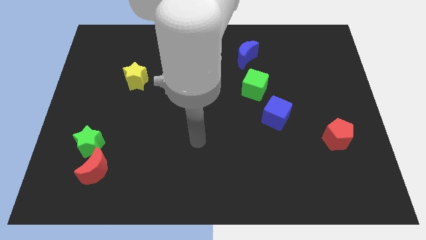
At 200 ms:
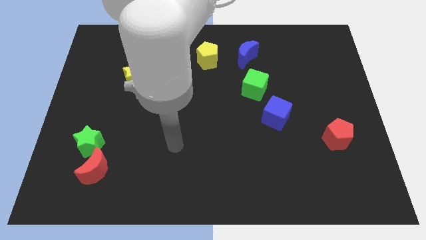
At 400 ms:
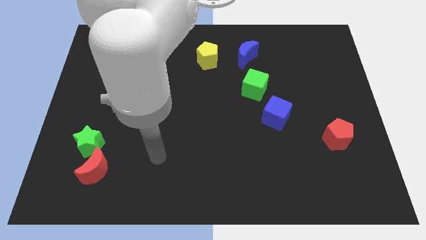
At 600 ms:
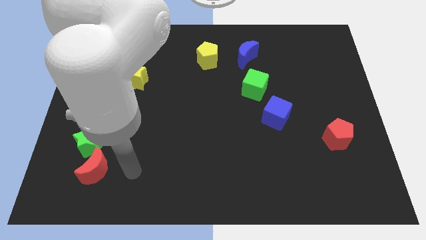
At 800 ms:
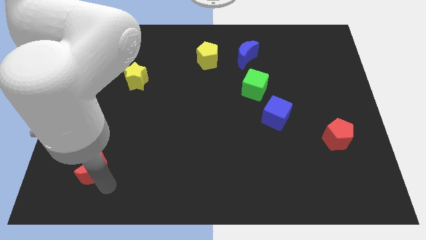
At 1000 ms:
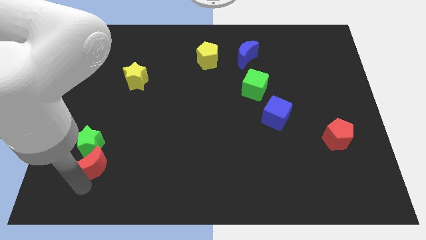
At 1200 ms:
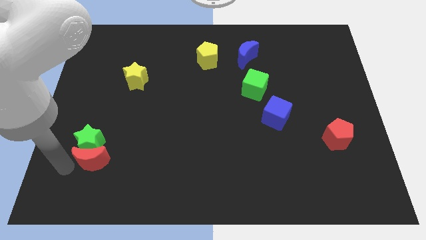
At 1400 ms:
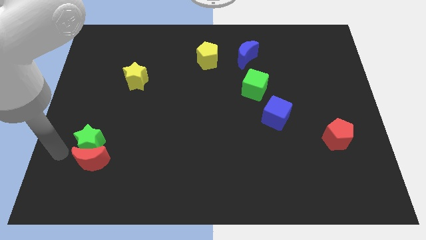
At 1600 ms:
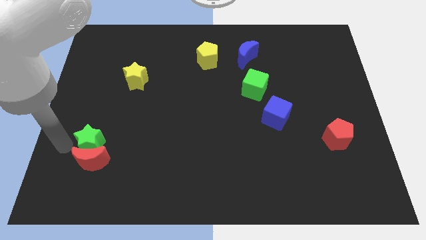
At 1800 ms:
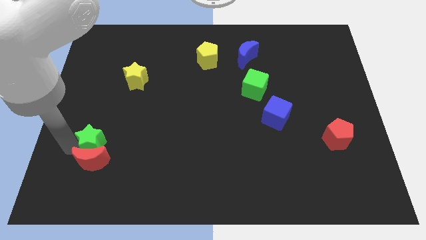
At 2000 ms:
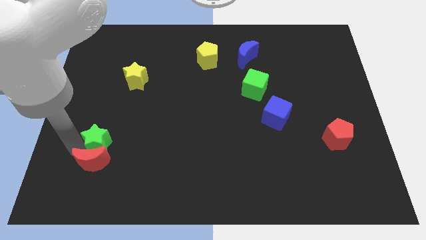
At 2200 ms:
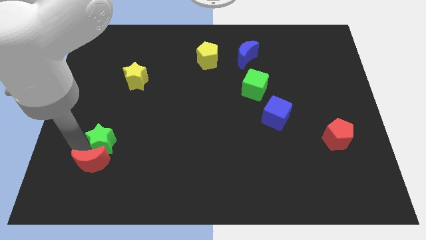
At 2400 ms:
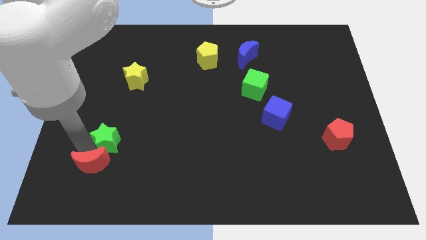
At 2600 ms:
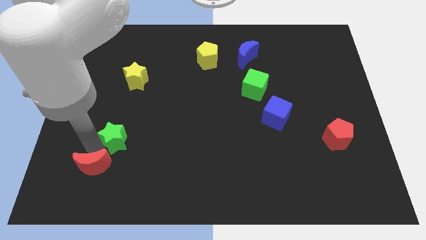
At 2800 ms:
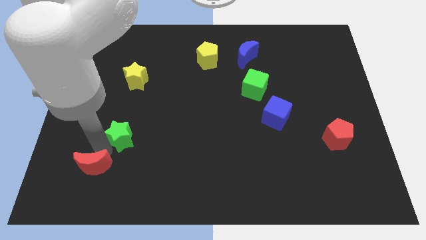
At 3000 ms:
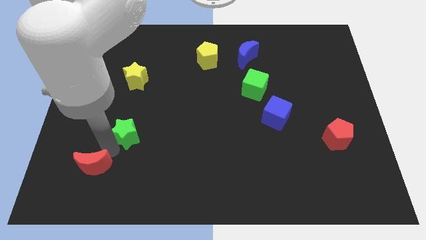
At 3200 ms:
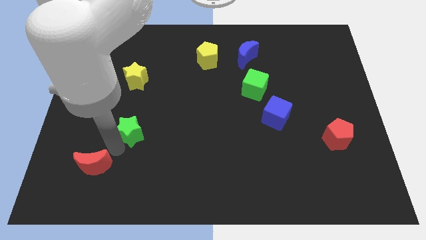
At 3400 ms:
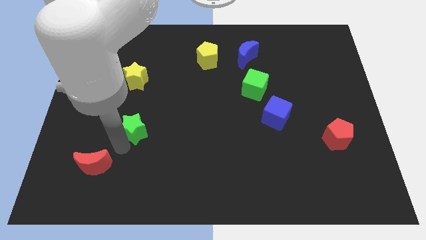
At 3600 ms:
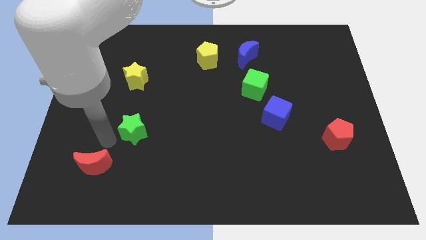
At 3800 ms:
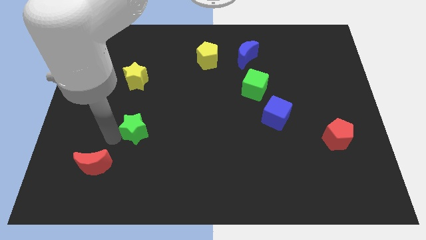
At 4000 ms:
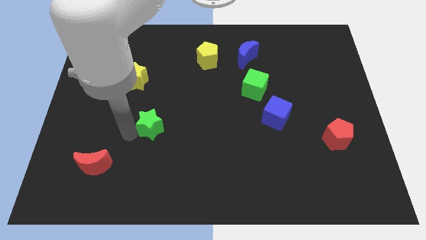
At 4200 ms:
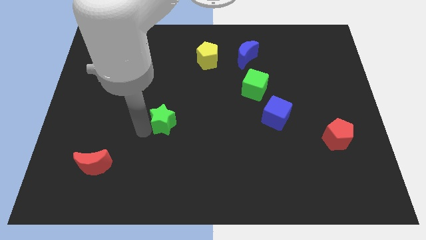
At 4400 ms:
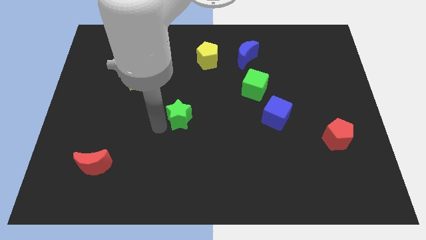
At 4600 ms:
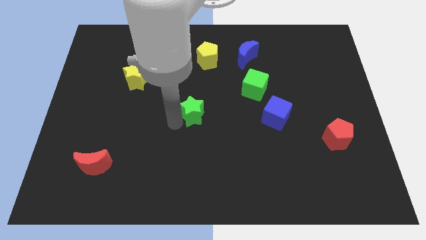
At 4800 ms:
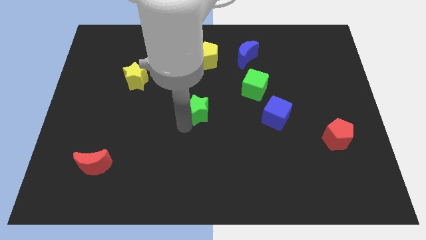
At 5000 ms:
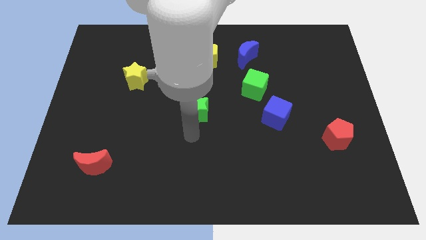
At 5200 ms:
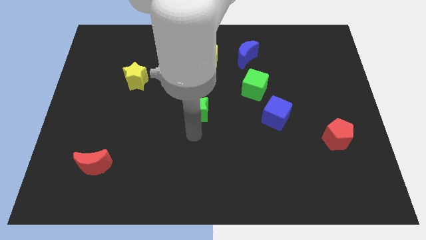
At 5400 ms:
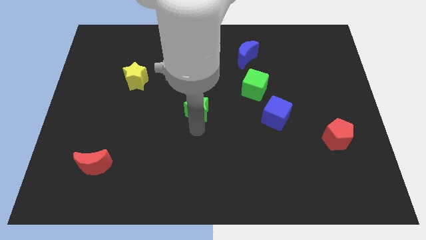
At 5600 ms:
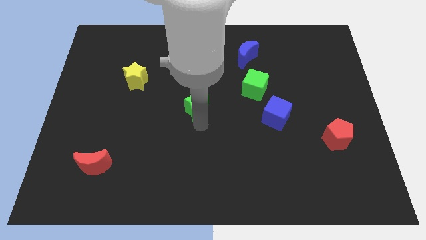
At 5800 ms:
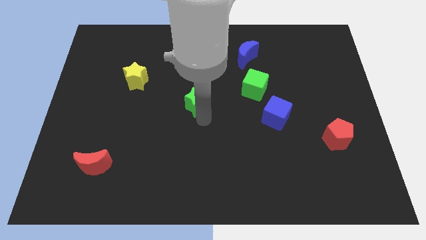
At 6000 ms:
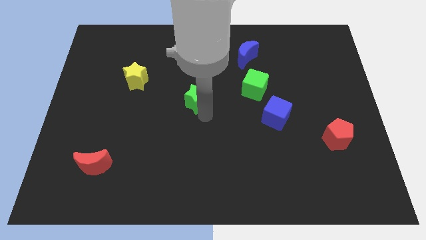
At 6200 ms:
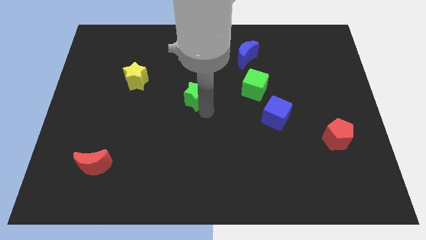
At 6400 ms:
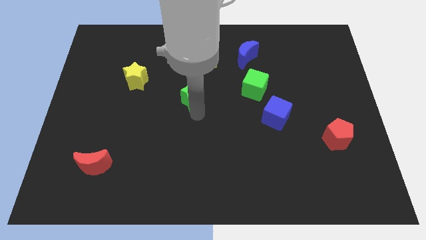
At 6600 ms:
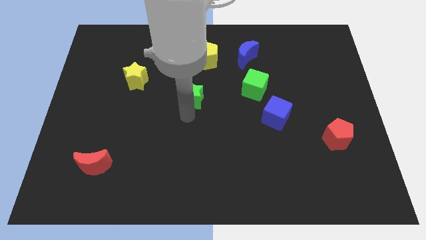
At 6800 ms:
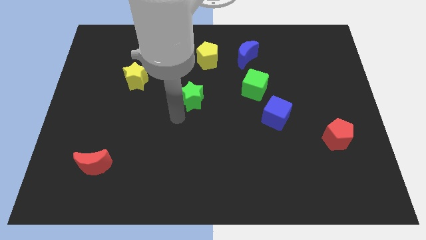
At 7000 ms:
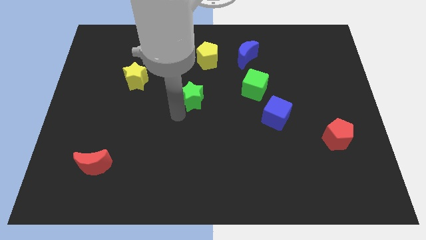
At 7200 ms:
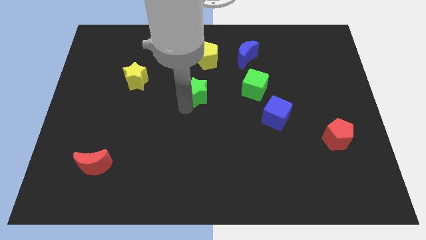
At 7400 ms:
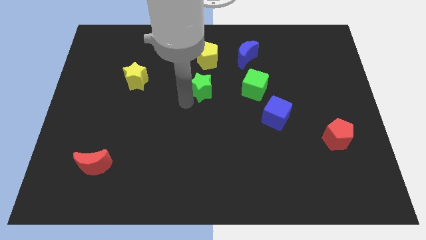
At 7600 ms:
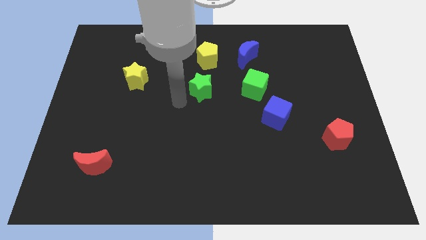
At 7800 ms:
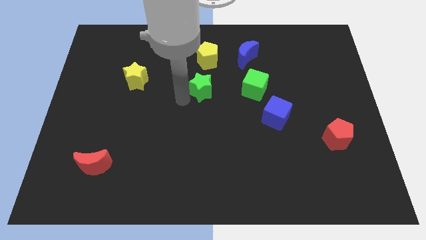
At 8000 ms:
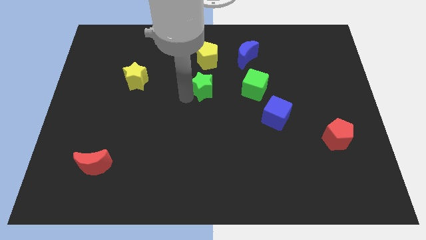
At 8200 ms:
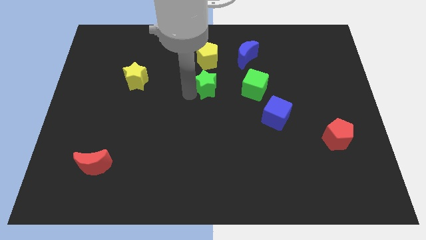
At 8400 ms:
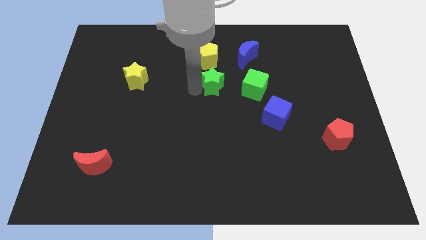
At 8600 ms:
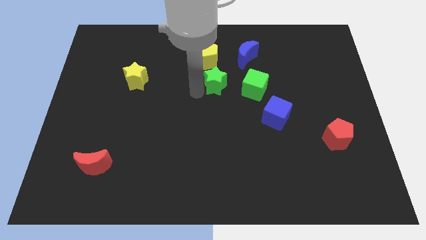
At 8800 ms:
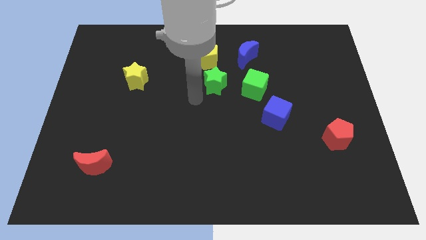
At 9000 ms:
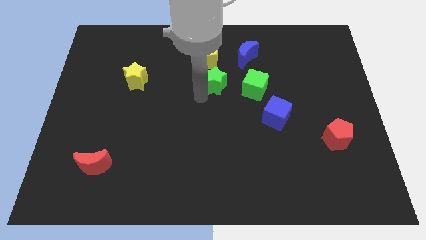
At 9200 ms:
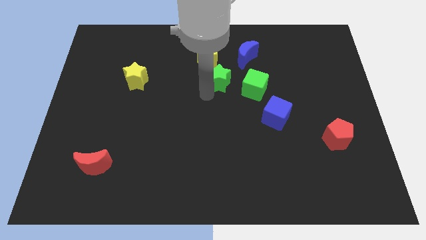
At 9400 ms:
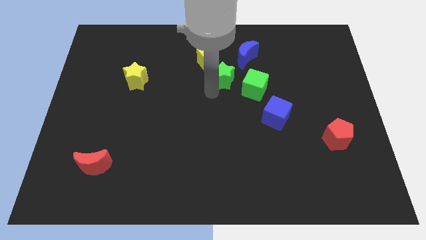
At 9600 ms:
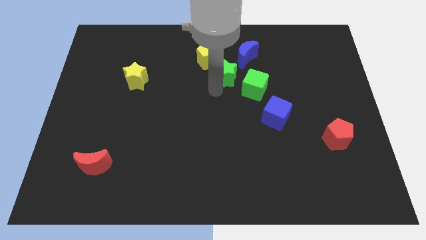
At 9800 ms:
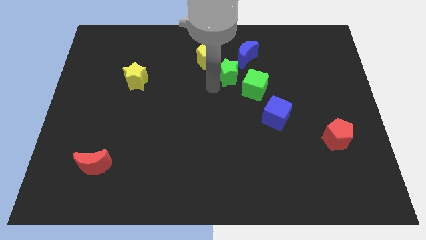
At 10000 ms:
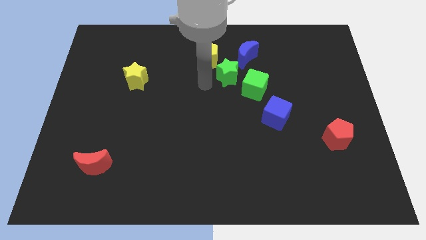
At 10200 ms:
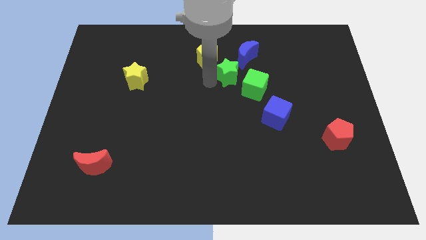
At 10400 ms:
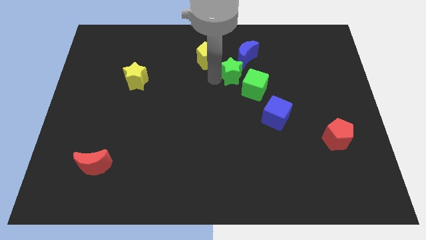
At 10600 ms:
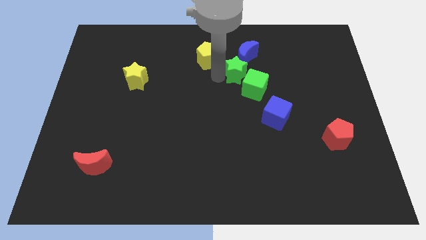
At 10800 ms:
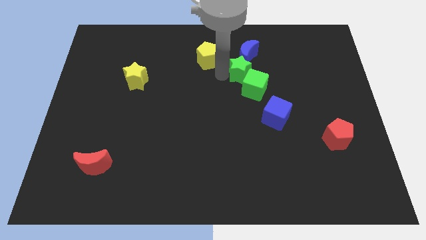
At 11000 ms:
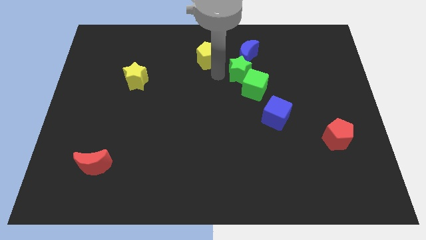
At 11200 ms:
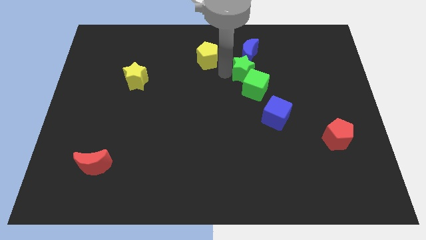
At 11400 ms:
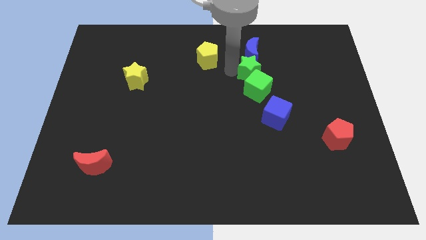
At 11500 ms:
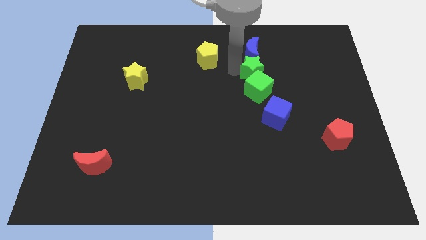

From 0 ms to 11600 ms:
put the green star to the top right side of the green cube

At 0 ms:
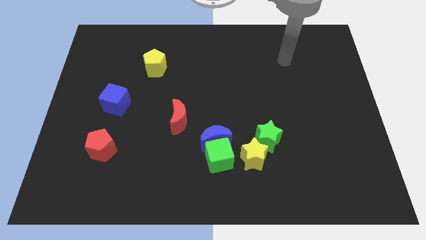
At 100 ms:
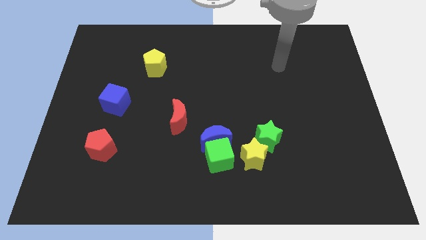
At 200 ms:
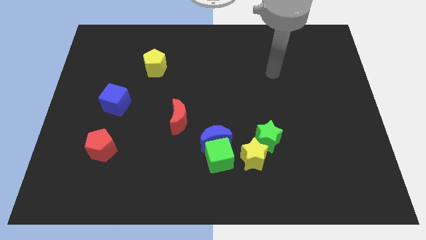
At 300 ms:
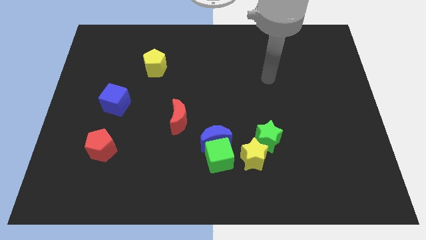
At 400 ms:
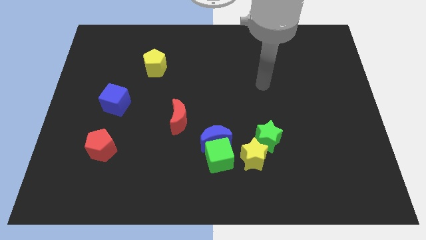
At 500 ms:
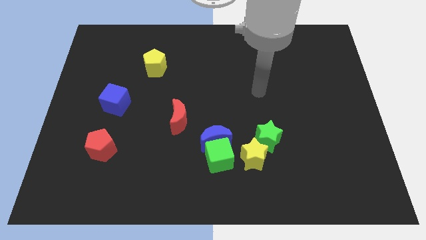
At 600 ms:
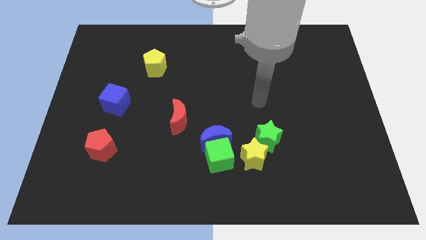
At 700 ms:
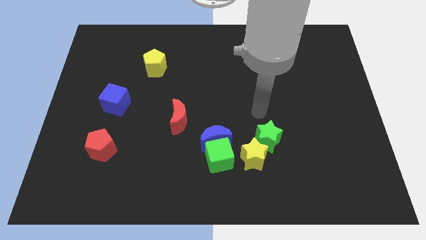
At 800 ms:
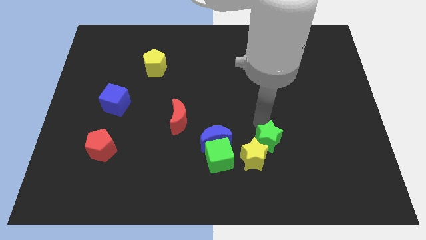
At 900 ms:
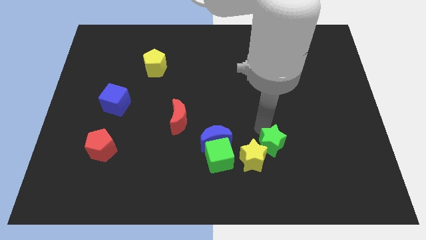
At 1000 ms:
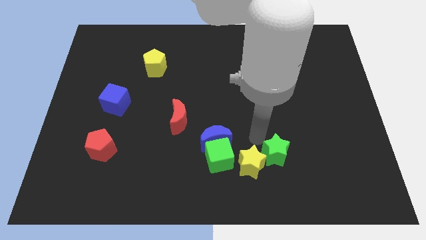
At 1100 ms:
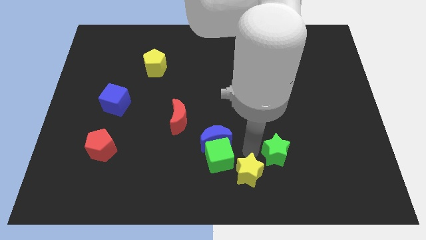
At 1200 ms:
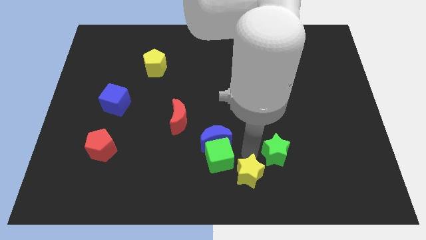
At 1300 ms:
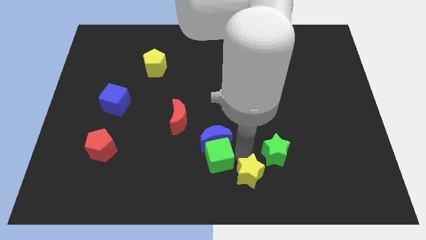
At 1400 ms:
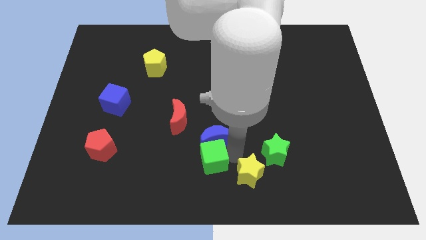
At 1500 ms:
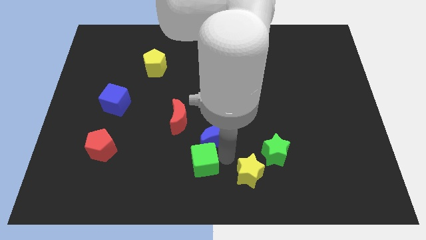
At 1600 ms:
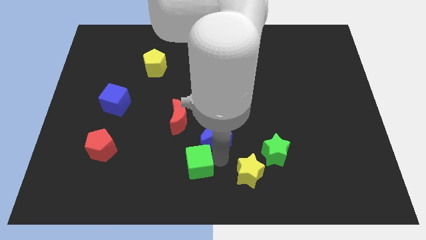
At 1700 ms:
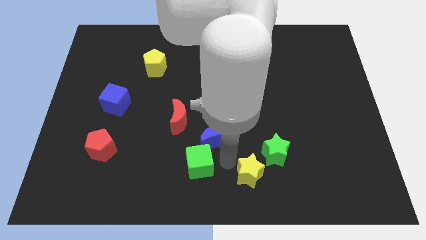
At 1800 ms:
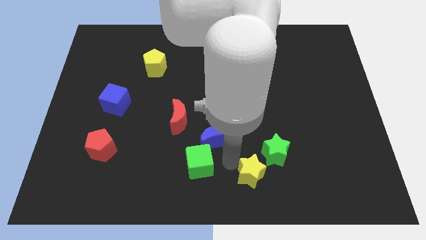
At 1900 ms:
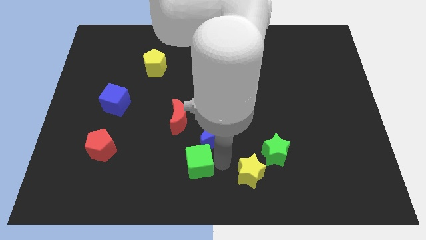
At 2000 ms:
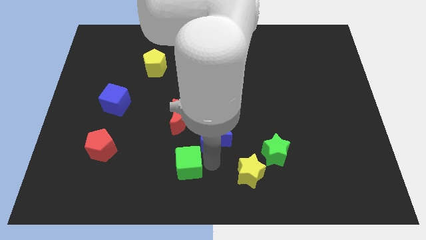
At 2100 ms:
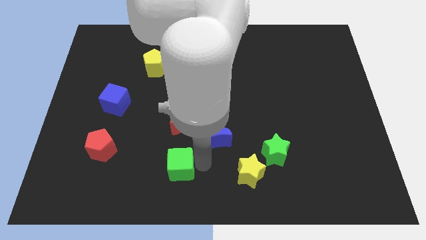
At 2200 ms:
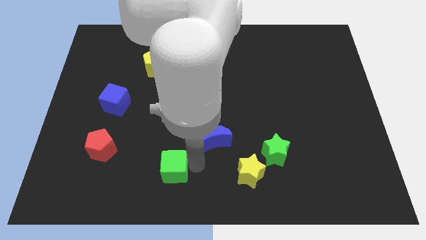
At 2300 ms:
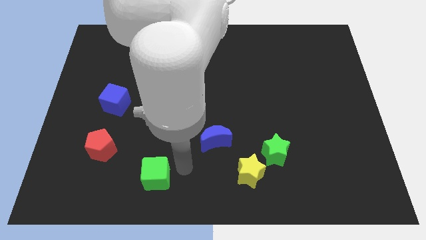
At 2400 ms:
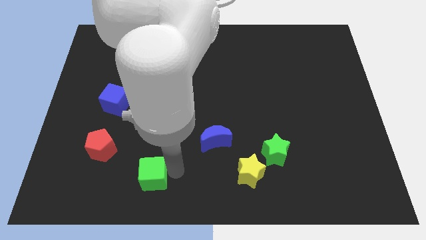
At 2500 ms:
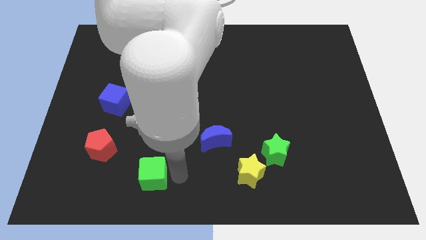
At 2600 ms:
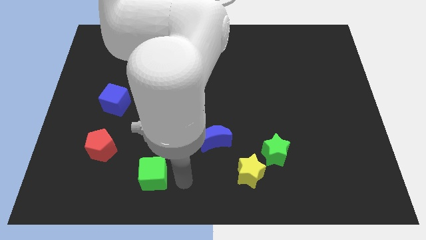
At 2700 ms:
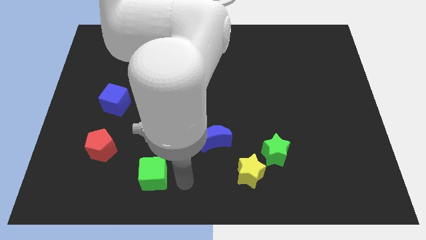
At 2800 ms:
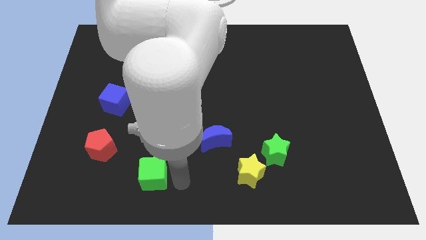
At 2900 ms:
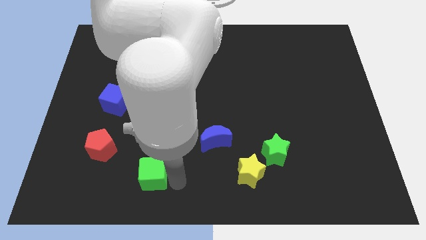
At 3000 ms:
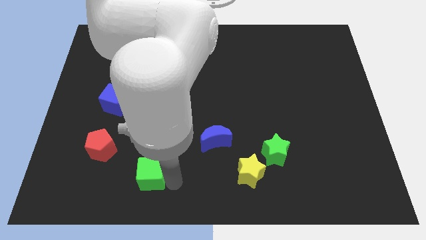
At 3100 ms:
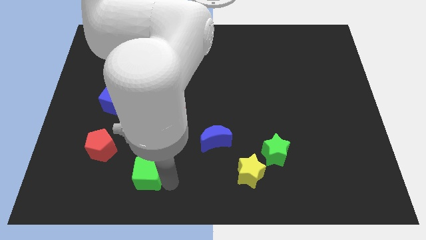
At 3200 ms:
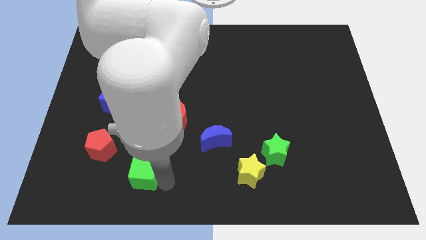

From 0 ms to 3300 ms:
slide the green cube to the bottom right of the red pentagon
